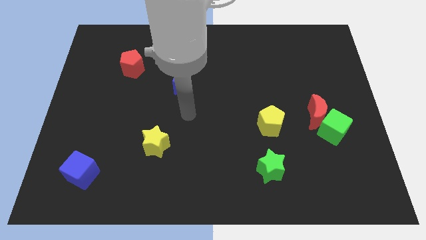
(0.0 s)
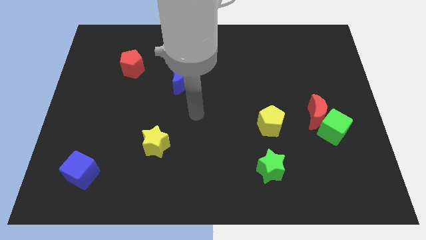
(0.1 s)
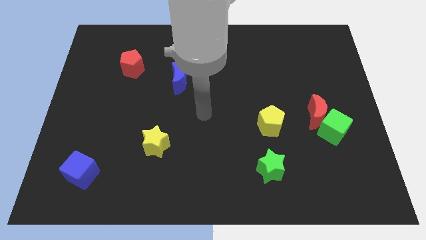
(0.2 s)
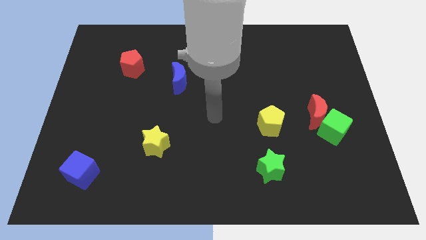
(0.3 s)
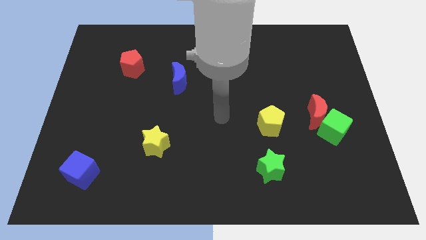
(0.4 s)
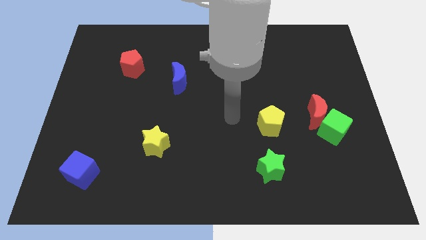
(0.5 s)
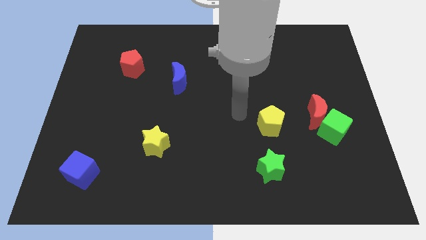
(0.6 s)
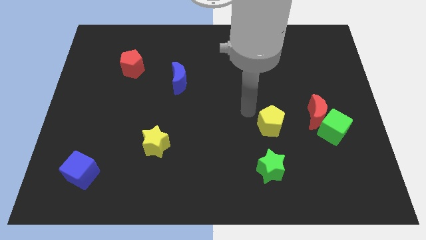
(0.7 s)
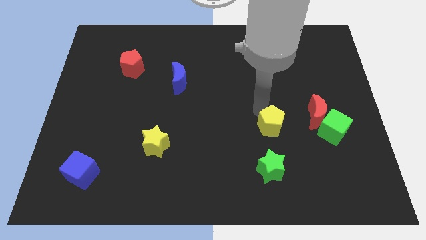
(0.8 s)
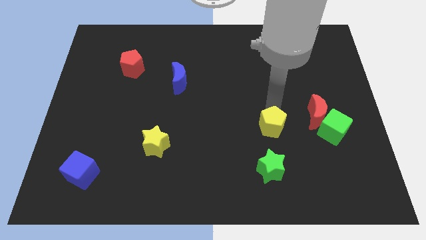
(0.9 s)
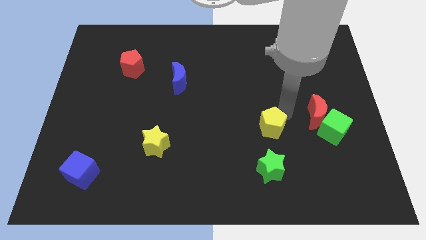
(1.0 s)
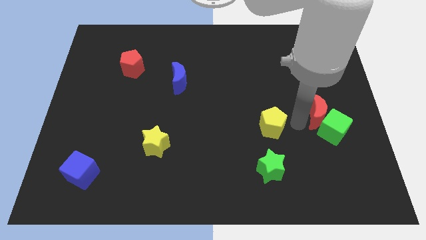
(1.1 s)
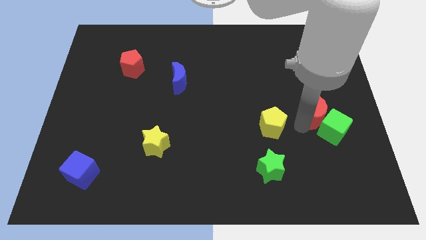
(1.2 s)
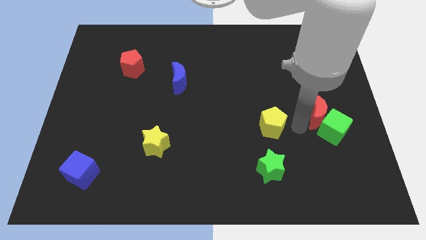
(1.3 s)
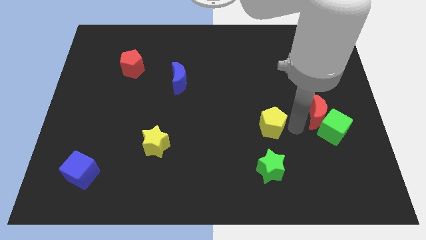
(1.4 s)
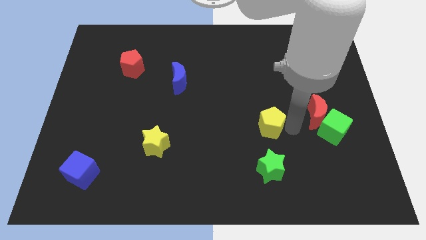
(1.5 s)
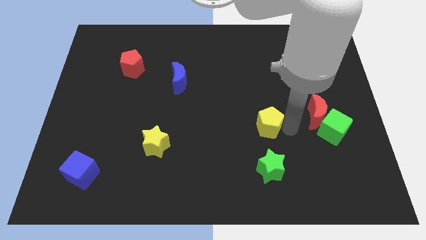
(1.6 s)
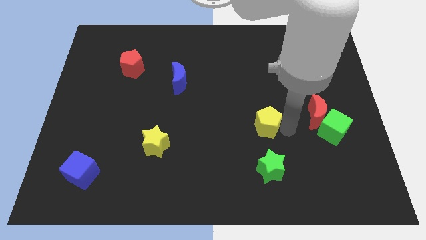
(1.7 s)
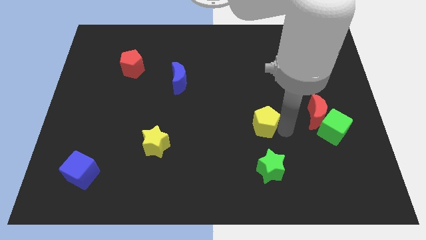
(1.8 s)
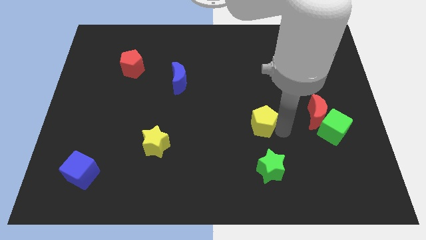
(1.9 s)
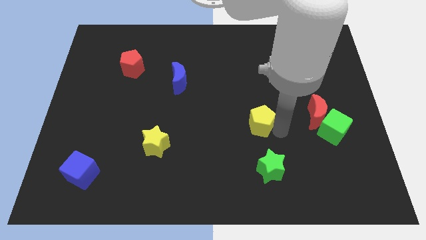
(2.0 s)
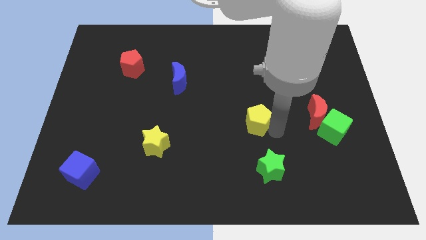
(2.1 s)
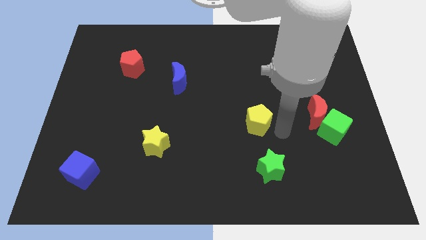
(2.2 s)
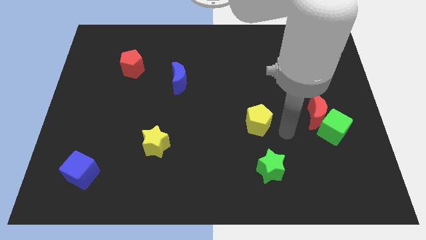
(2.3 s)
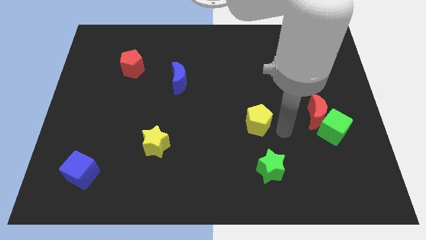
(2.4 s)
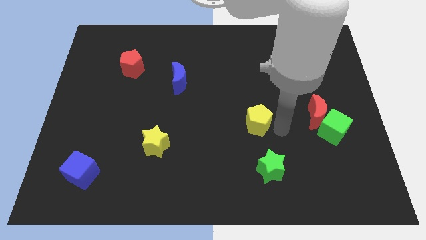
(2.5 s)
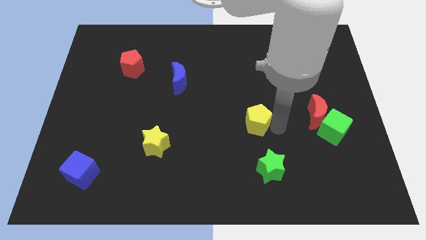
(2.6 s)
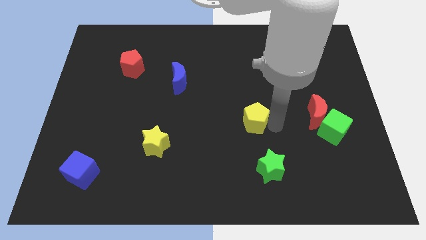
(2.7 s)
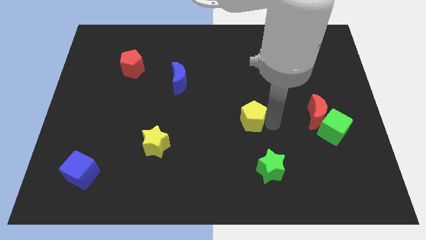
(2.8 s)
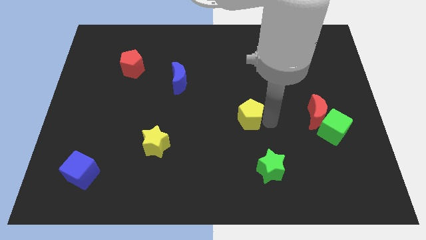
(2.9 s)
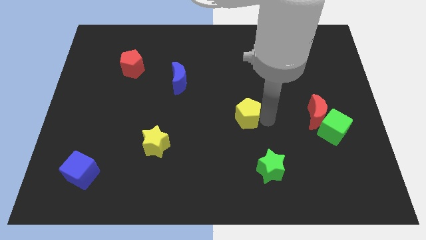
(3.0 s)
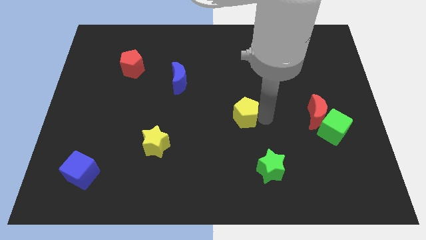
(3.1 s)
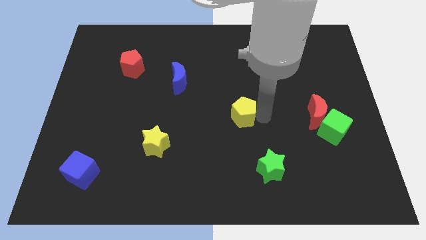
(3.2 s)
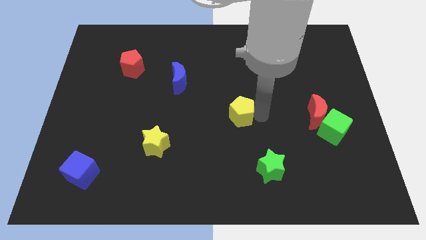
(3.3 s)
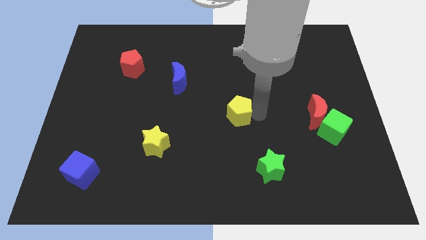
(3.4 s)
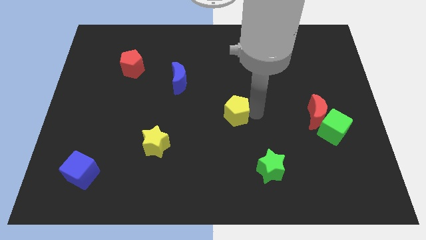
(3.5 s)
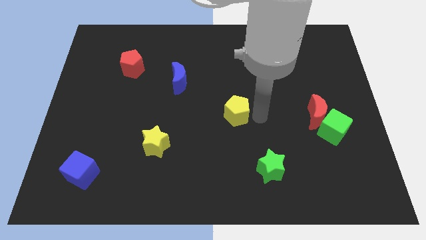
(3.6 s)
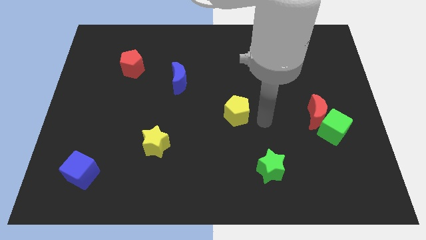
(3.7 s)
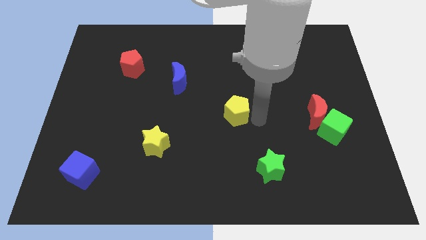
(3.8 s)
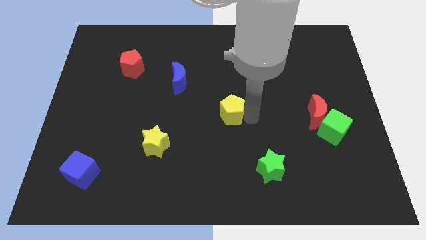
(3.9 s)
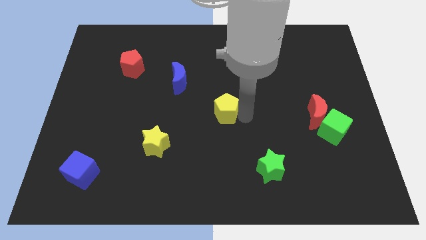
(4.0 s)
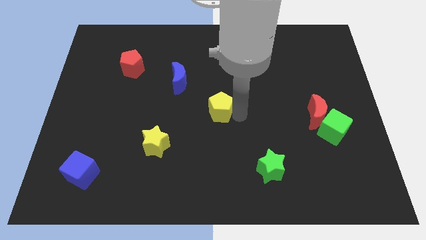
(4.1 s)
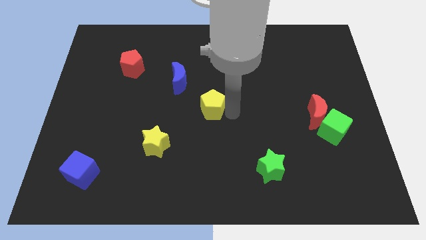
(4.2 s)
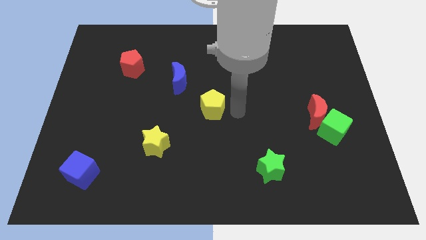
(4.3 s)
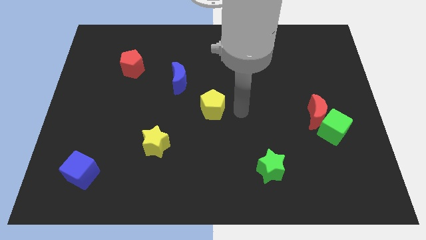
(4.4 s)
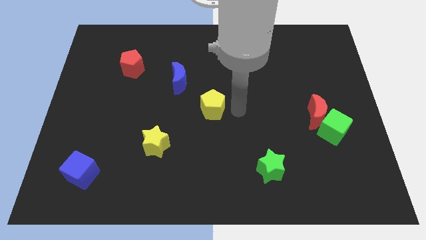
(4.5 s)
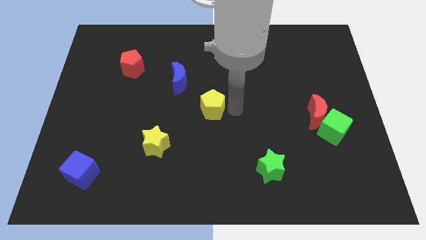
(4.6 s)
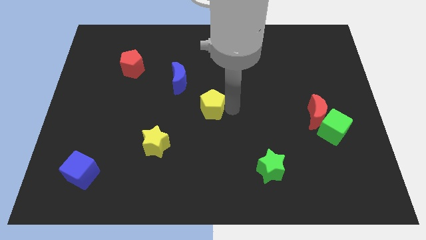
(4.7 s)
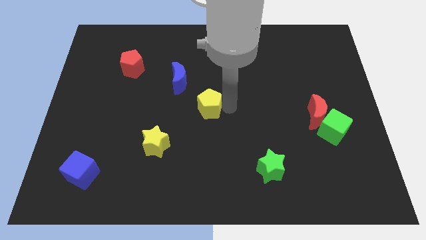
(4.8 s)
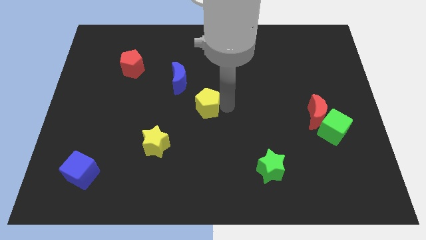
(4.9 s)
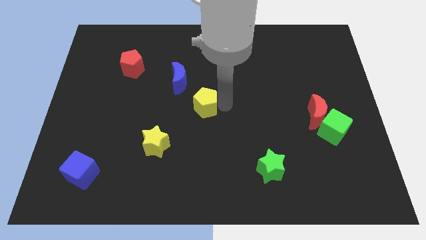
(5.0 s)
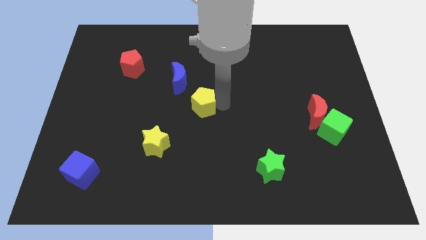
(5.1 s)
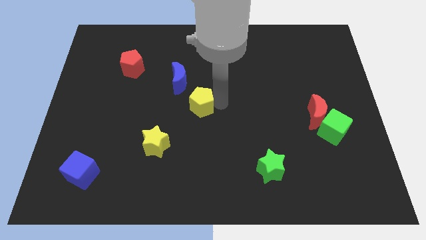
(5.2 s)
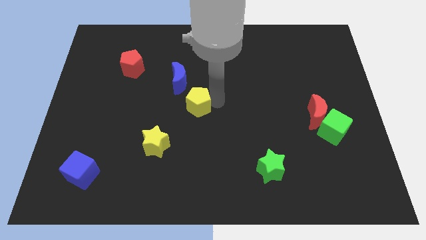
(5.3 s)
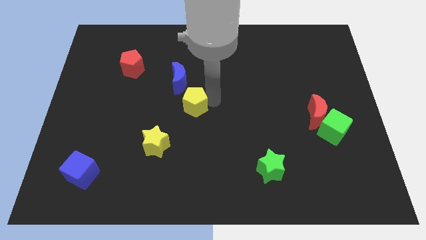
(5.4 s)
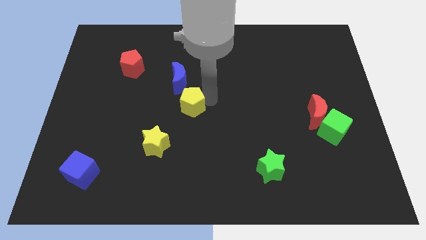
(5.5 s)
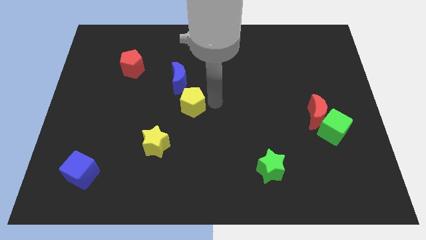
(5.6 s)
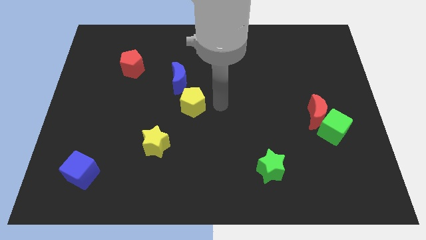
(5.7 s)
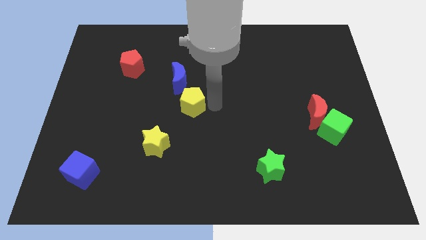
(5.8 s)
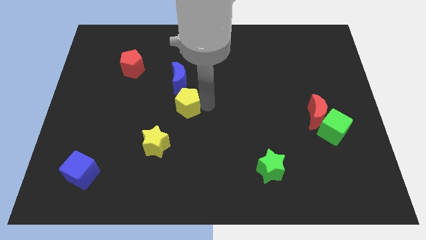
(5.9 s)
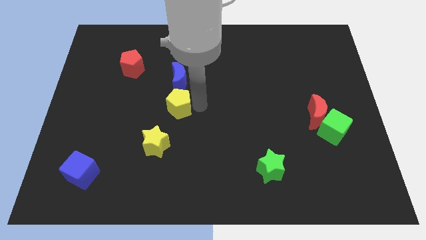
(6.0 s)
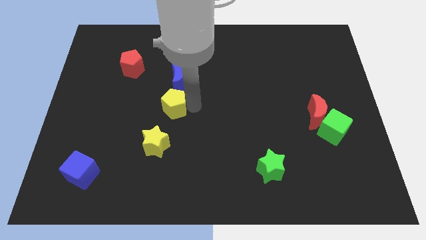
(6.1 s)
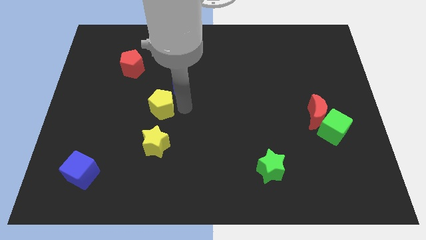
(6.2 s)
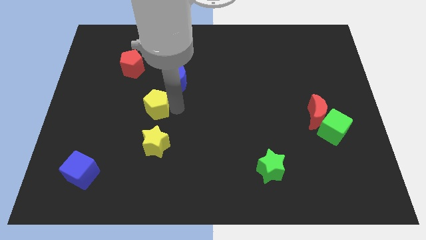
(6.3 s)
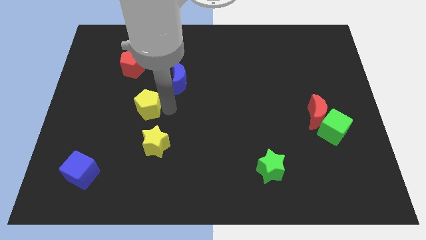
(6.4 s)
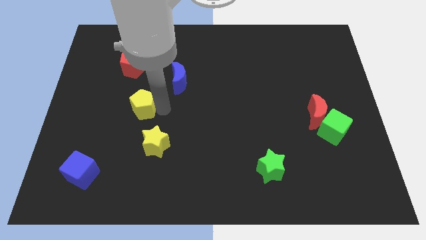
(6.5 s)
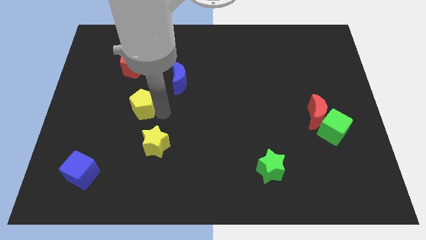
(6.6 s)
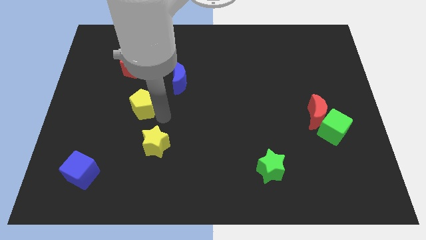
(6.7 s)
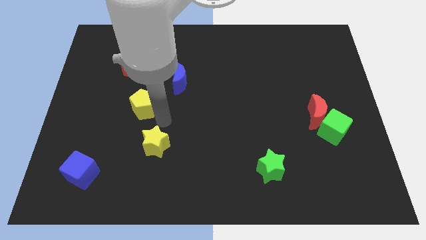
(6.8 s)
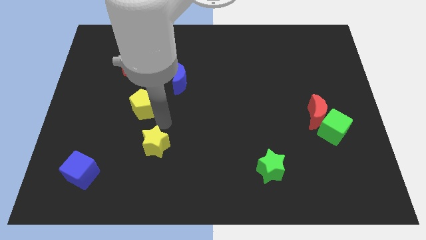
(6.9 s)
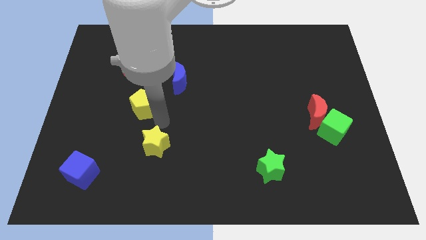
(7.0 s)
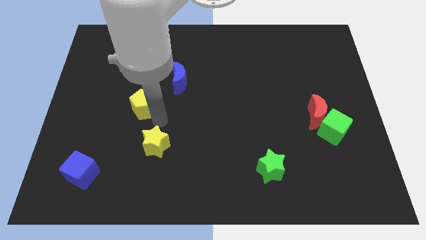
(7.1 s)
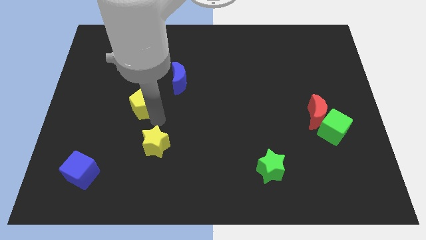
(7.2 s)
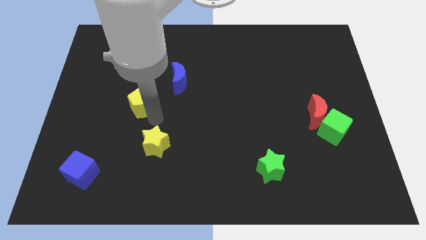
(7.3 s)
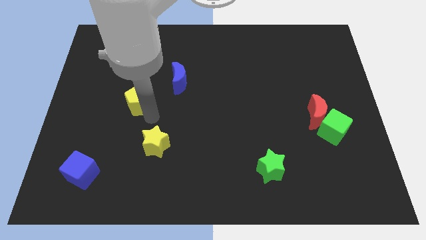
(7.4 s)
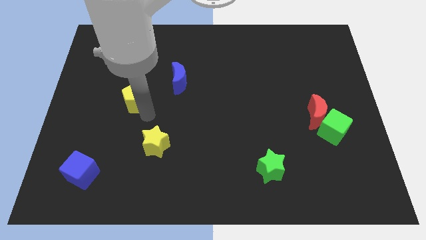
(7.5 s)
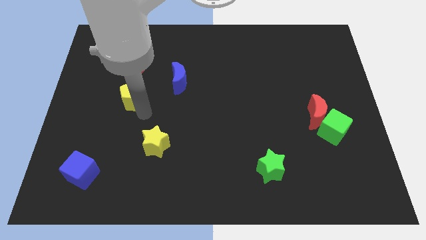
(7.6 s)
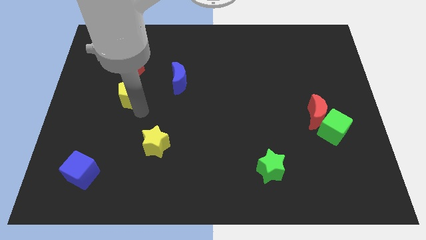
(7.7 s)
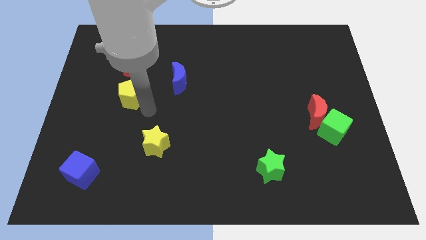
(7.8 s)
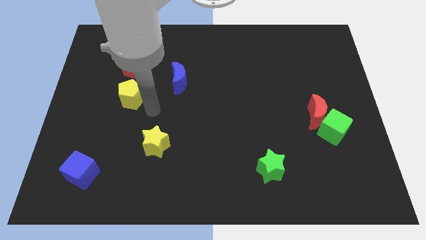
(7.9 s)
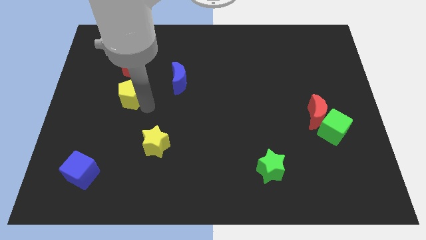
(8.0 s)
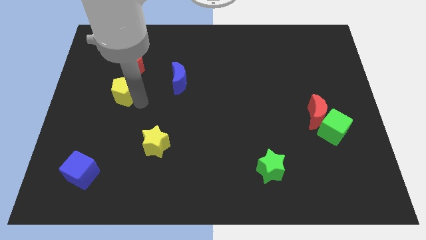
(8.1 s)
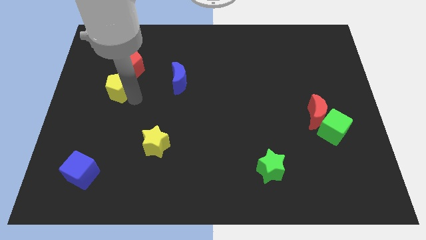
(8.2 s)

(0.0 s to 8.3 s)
put the yellow pentagon to the bottom left of the red pentagon
